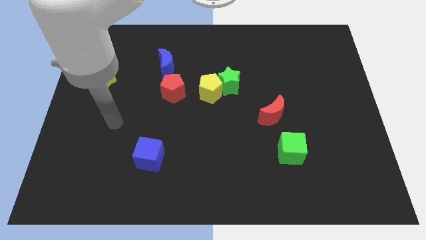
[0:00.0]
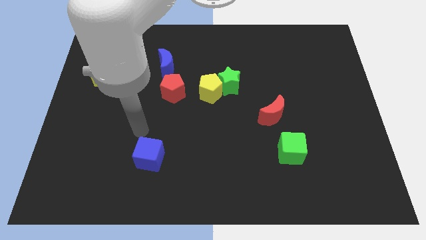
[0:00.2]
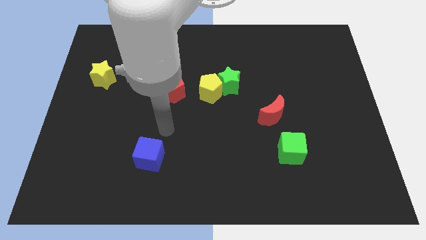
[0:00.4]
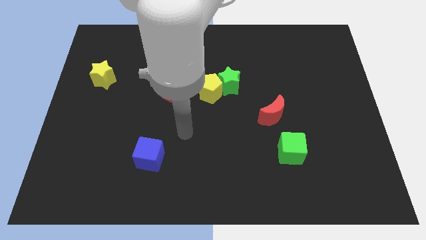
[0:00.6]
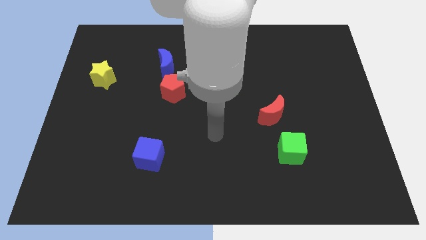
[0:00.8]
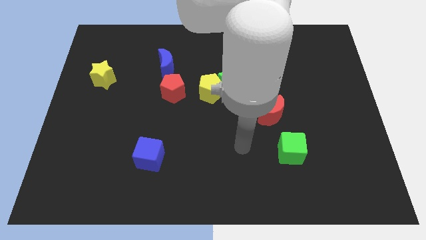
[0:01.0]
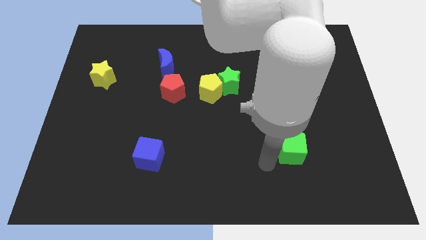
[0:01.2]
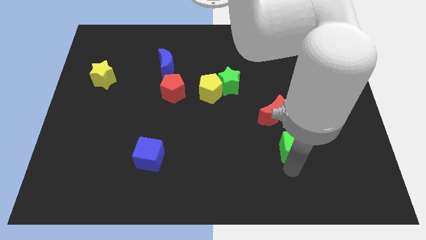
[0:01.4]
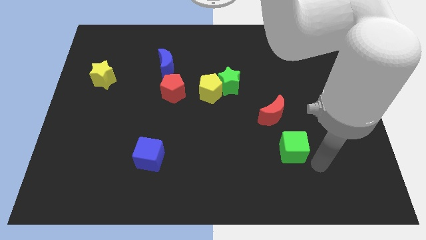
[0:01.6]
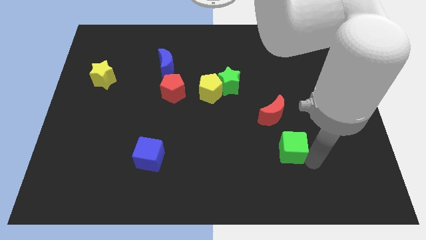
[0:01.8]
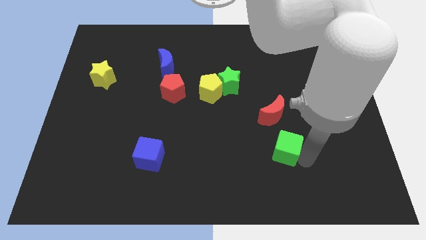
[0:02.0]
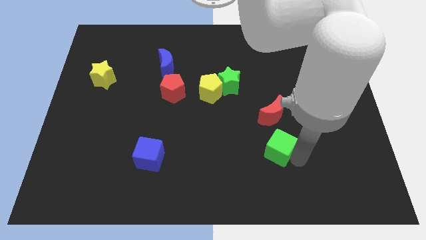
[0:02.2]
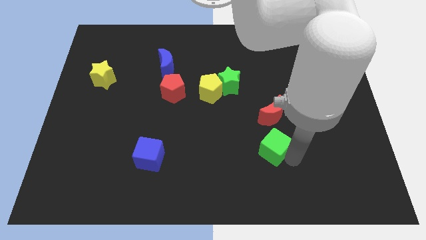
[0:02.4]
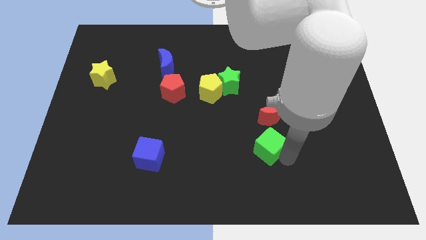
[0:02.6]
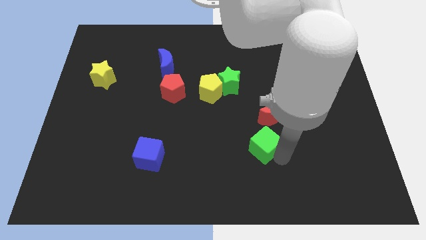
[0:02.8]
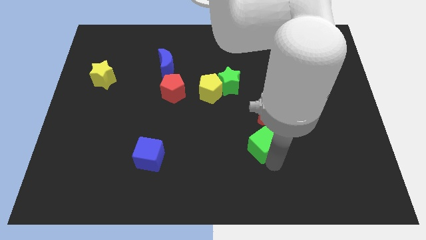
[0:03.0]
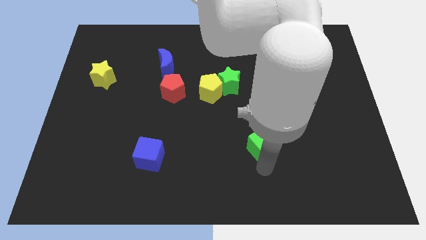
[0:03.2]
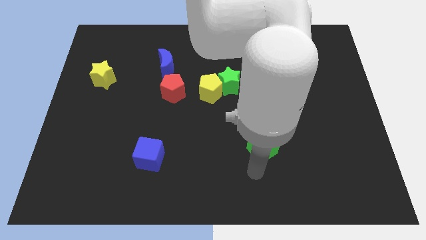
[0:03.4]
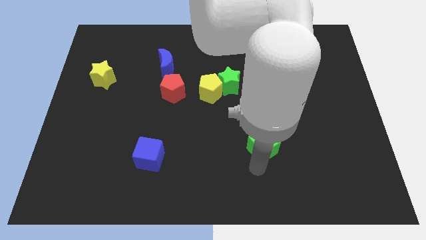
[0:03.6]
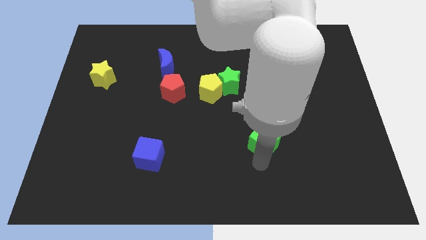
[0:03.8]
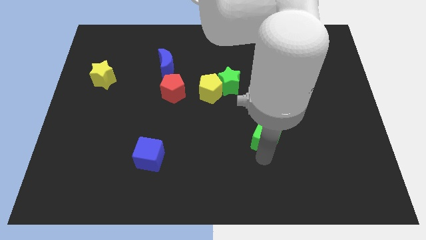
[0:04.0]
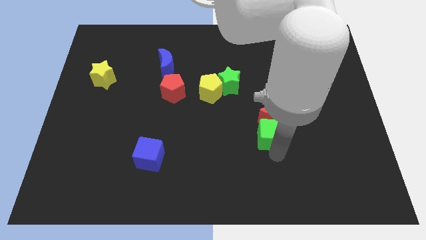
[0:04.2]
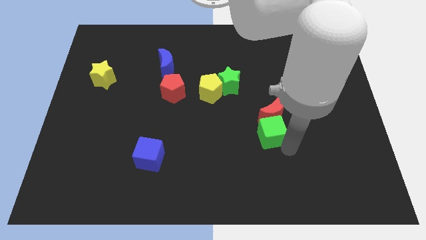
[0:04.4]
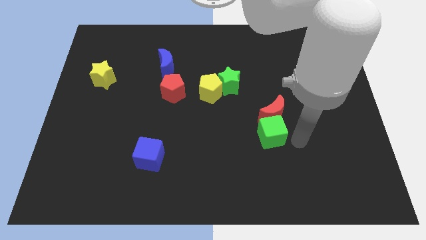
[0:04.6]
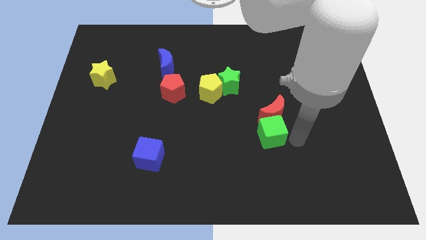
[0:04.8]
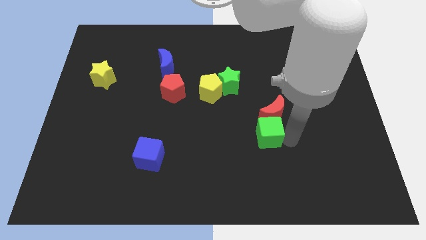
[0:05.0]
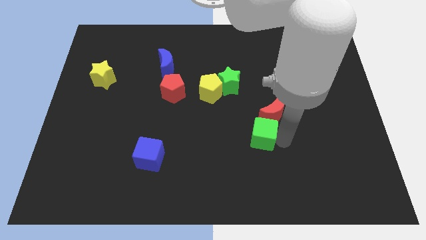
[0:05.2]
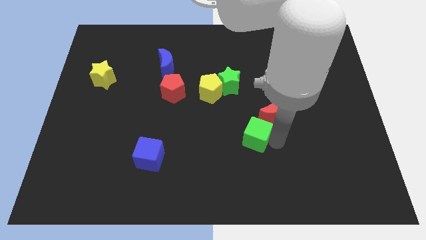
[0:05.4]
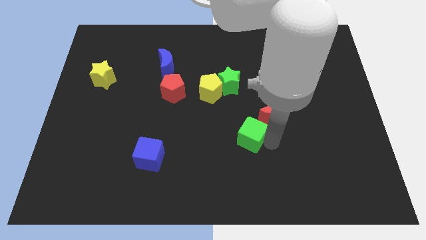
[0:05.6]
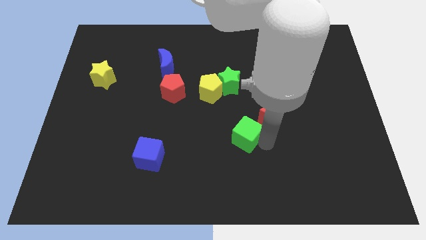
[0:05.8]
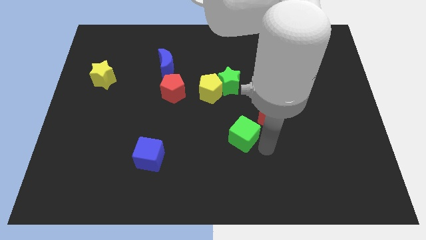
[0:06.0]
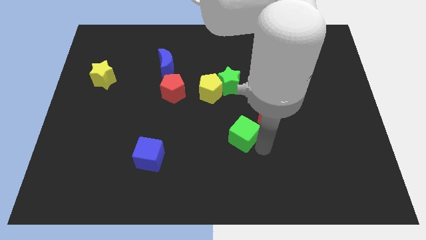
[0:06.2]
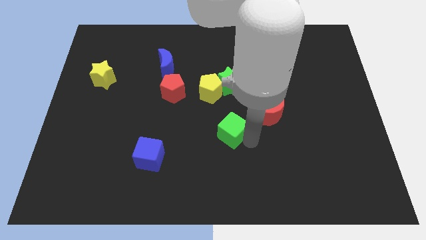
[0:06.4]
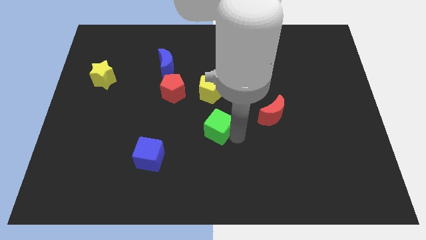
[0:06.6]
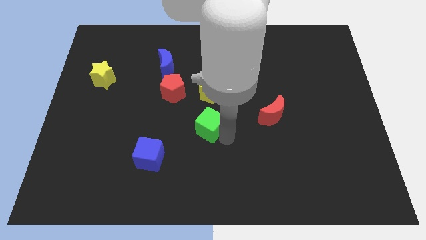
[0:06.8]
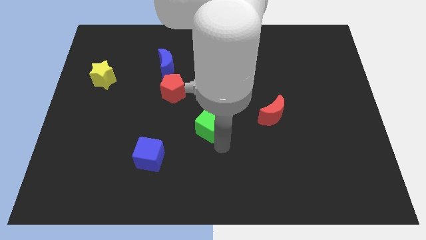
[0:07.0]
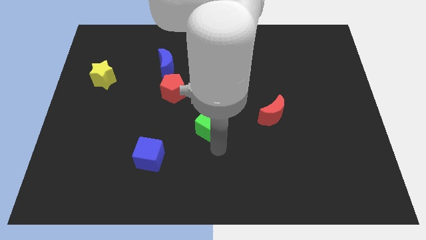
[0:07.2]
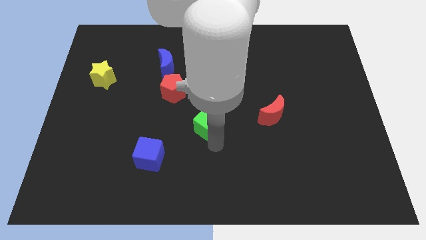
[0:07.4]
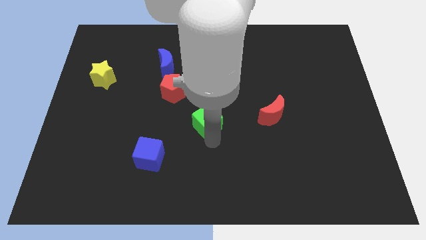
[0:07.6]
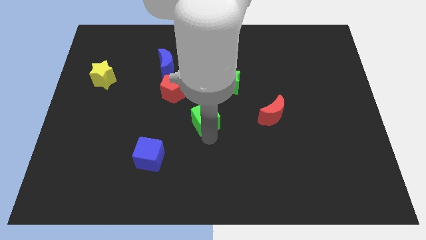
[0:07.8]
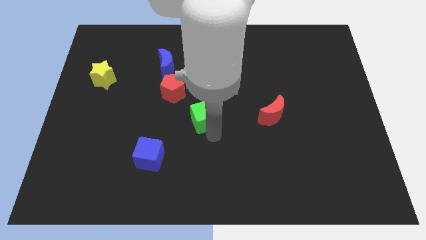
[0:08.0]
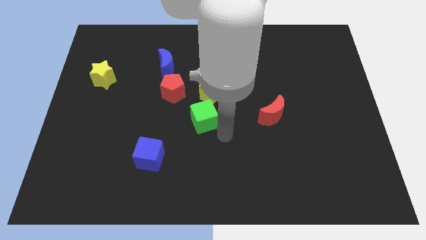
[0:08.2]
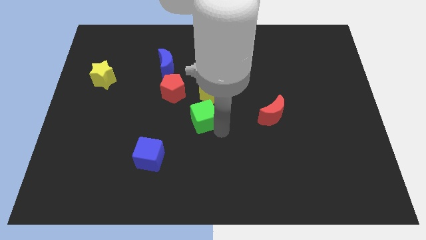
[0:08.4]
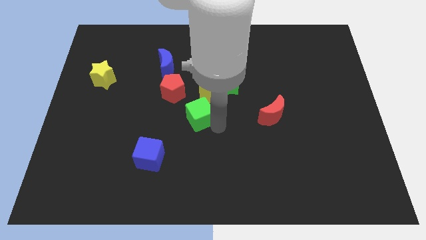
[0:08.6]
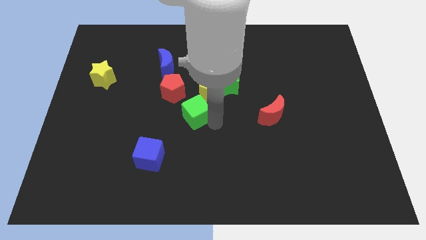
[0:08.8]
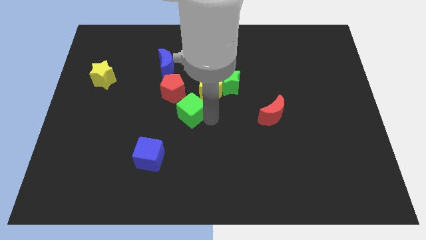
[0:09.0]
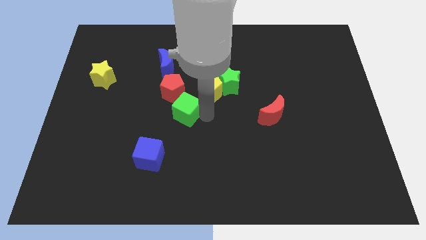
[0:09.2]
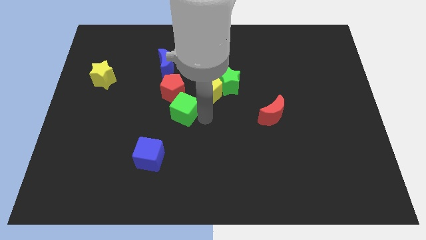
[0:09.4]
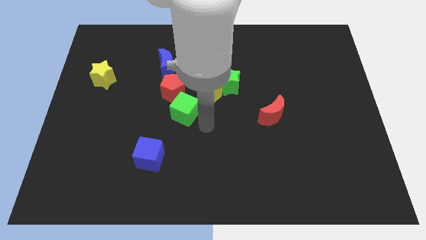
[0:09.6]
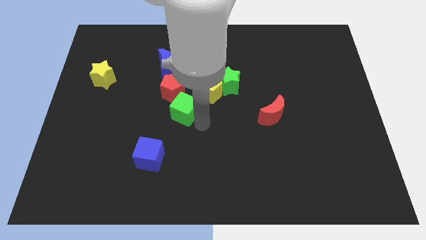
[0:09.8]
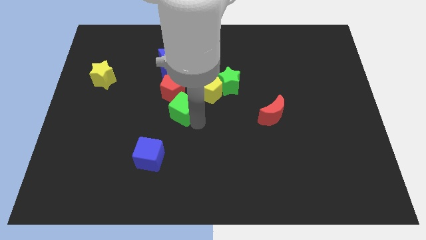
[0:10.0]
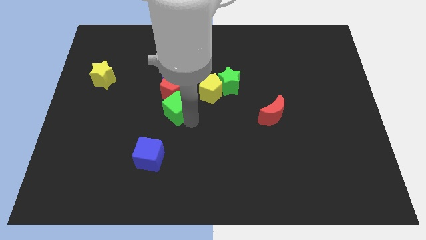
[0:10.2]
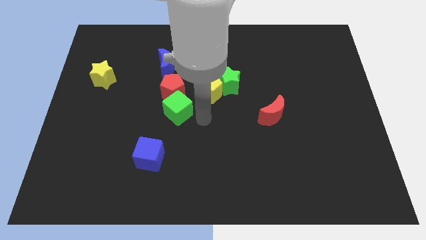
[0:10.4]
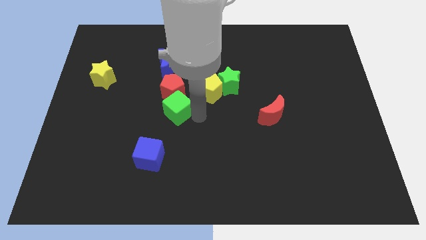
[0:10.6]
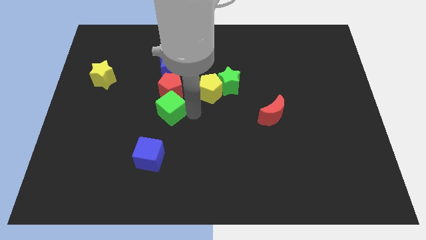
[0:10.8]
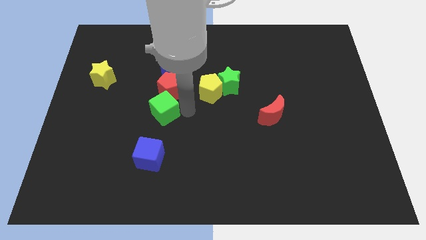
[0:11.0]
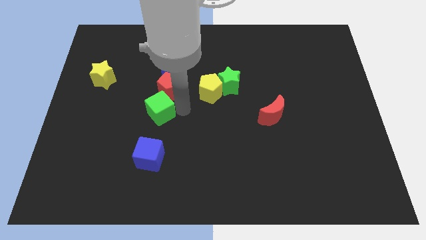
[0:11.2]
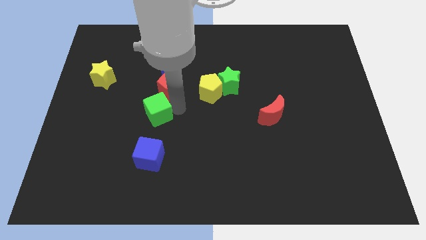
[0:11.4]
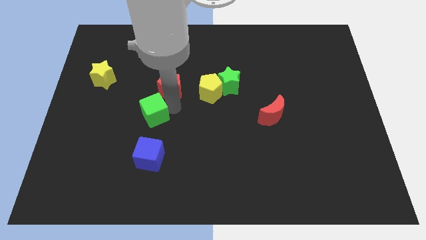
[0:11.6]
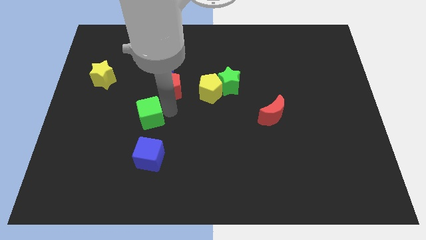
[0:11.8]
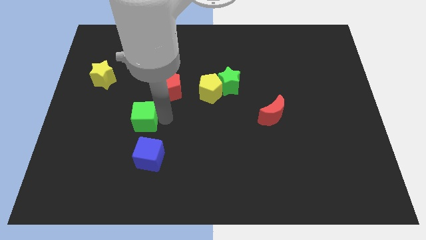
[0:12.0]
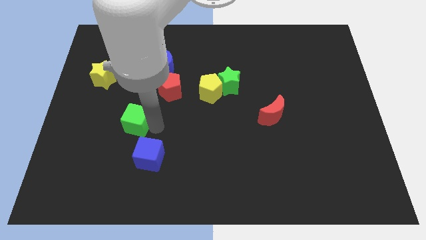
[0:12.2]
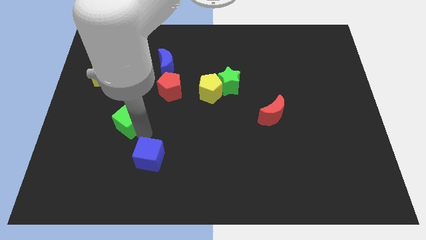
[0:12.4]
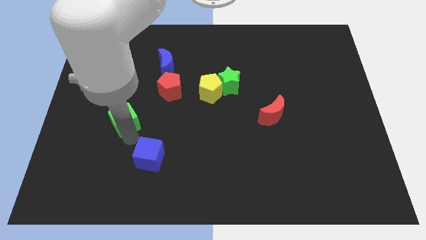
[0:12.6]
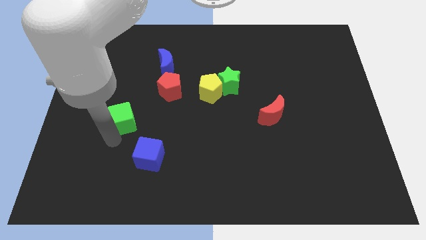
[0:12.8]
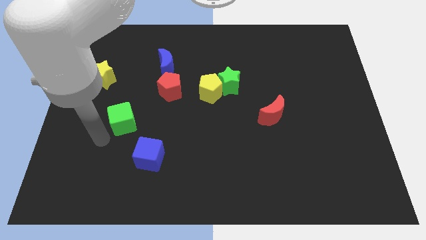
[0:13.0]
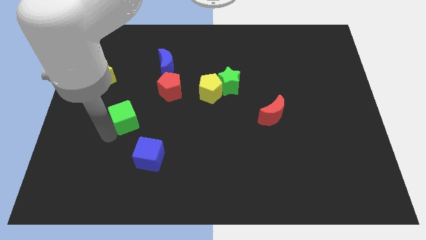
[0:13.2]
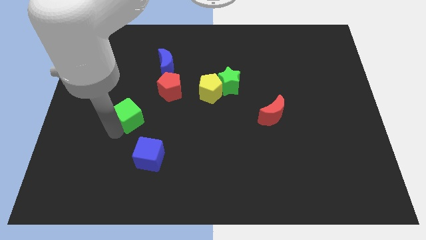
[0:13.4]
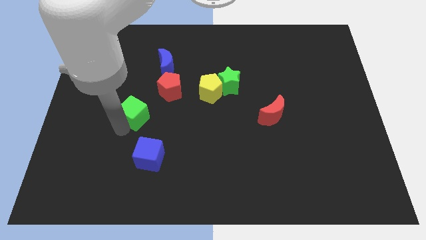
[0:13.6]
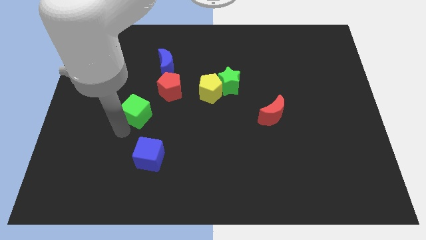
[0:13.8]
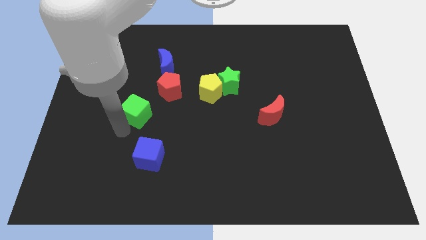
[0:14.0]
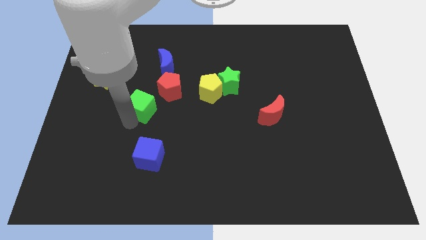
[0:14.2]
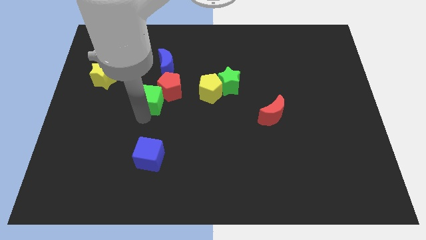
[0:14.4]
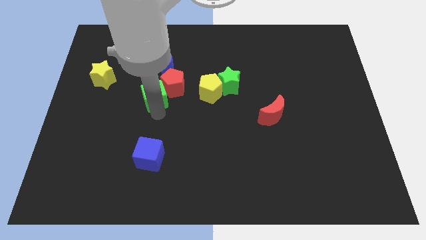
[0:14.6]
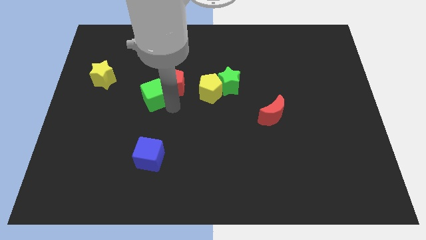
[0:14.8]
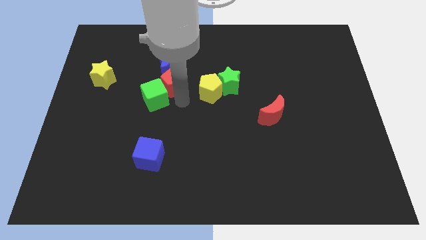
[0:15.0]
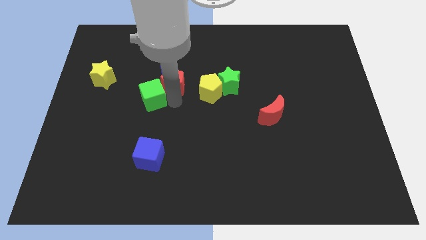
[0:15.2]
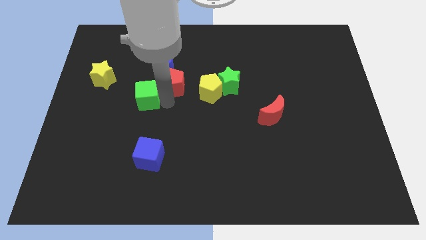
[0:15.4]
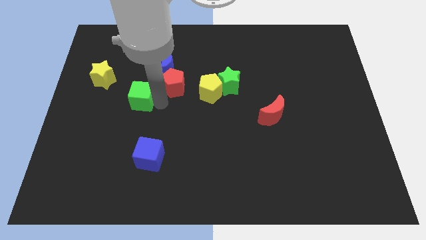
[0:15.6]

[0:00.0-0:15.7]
move the green cube to the bottom right side of the yellow star

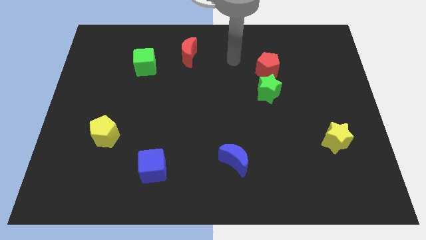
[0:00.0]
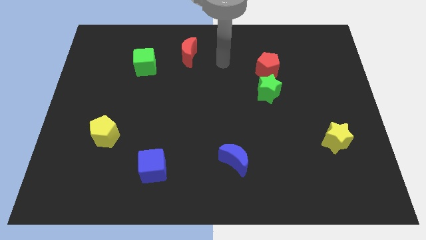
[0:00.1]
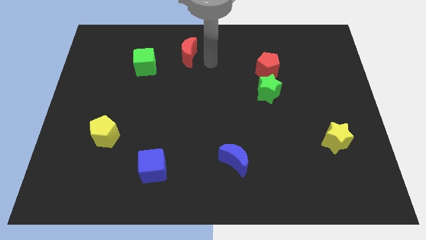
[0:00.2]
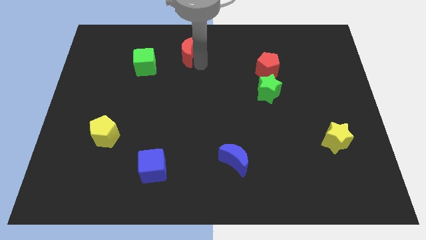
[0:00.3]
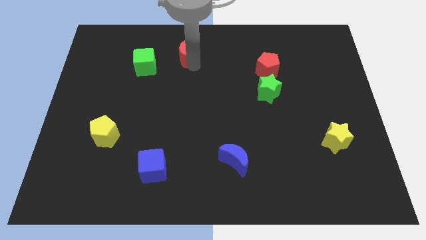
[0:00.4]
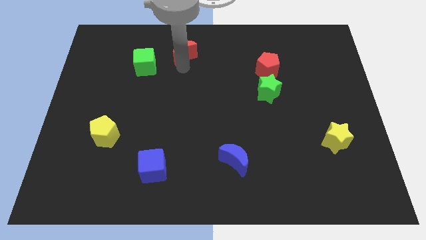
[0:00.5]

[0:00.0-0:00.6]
push the green cube to the bottom left of the red moon
